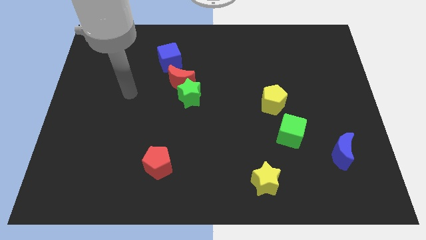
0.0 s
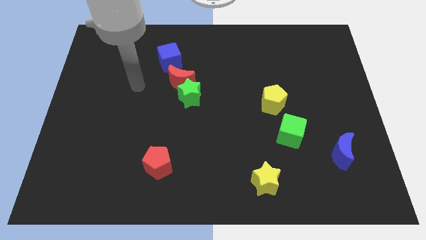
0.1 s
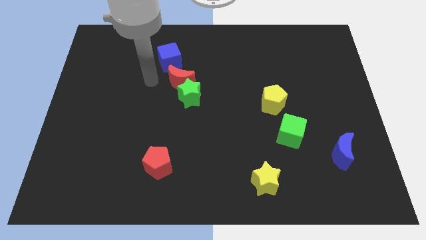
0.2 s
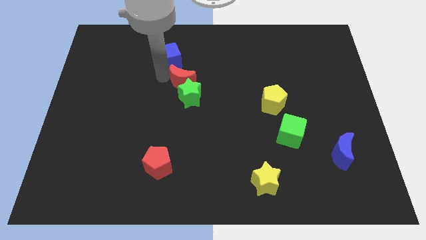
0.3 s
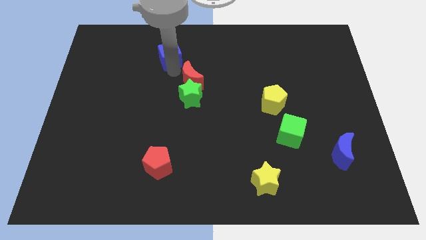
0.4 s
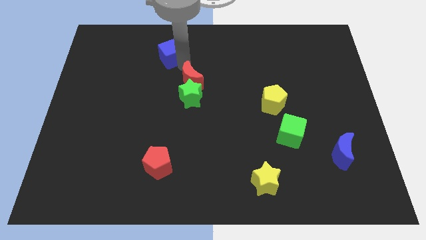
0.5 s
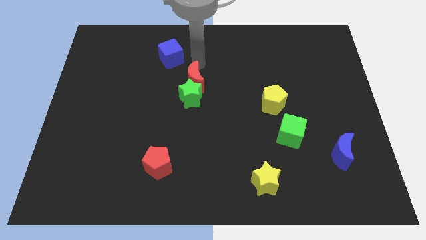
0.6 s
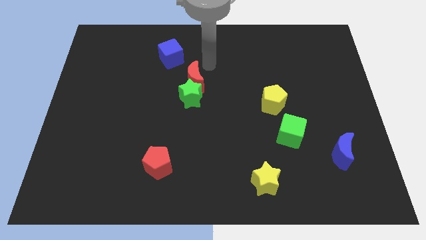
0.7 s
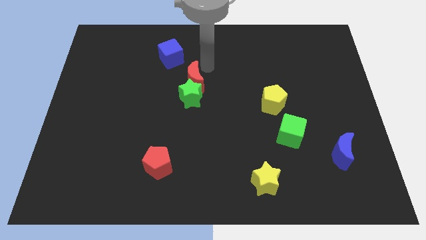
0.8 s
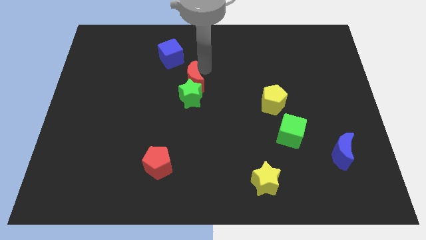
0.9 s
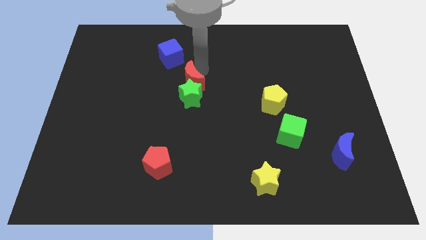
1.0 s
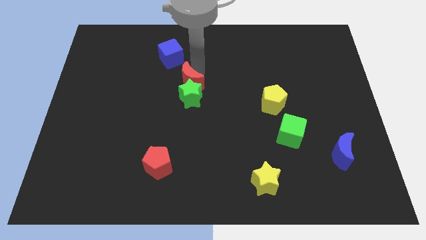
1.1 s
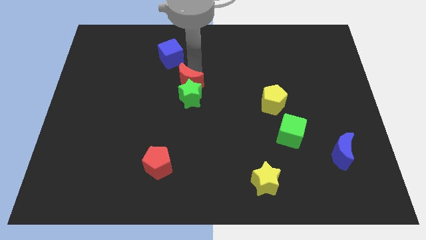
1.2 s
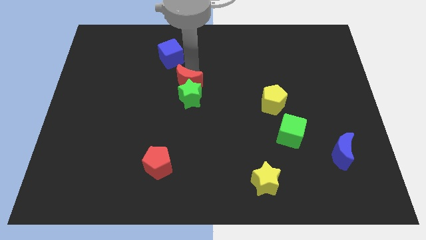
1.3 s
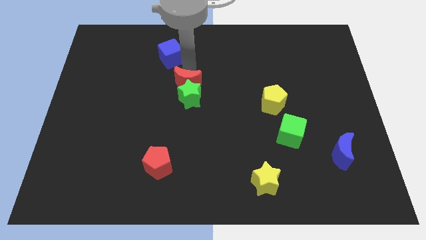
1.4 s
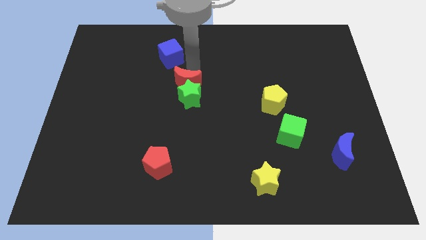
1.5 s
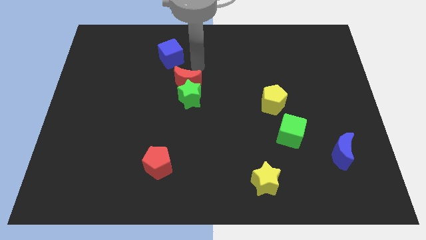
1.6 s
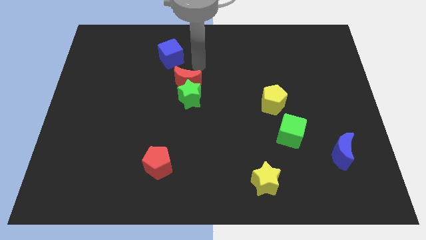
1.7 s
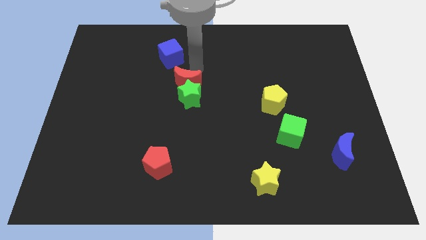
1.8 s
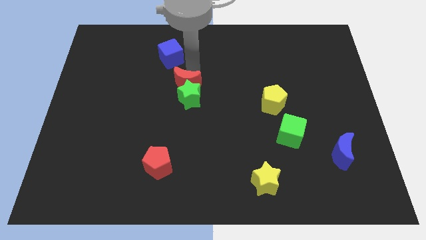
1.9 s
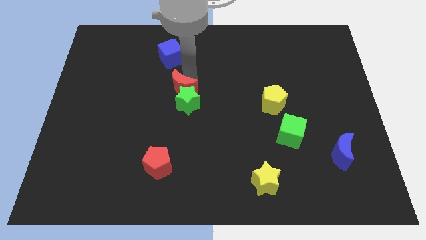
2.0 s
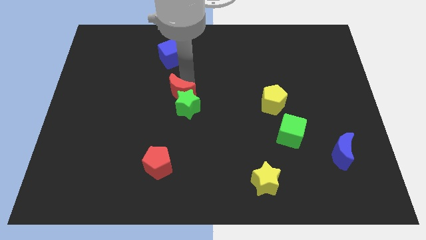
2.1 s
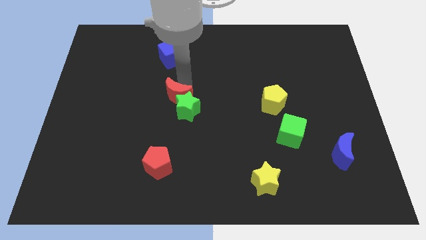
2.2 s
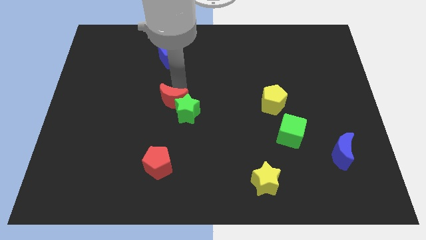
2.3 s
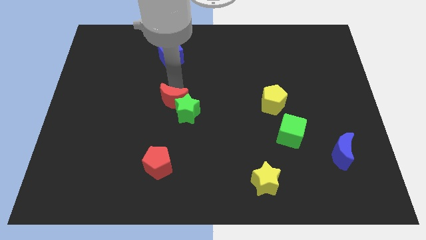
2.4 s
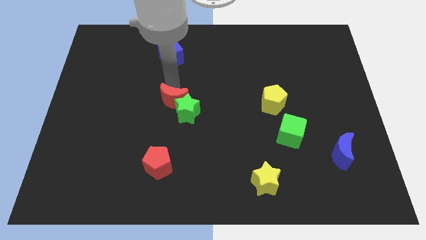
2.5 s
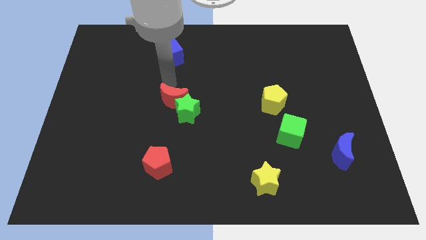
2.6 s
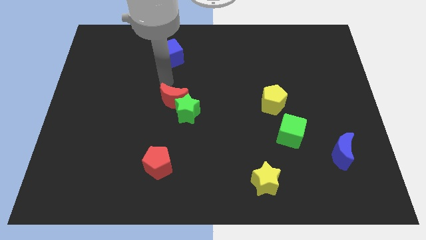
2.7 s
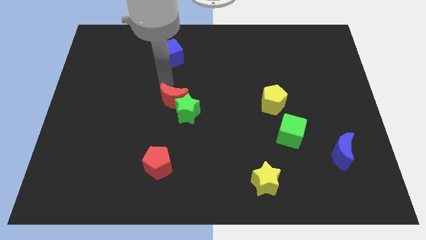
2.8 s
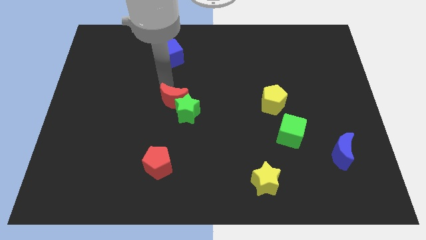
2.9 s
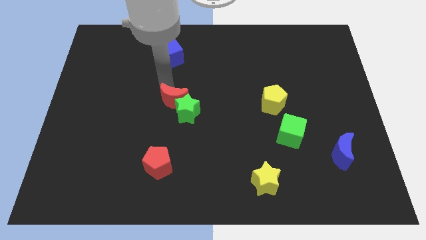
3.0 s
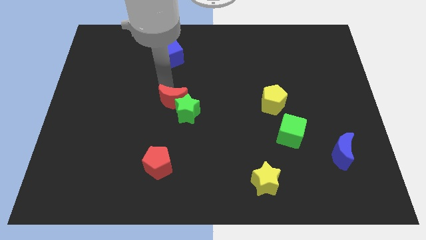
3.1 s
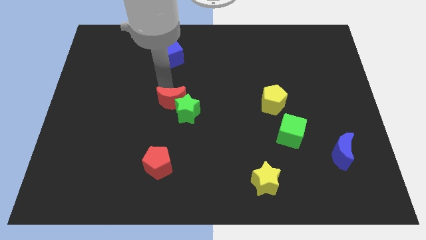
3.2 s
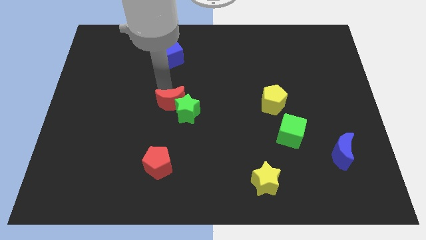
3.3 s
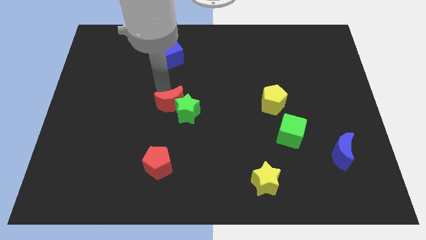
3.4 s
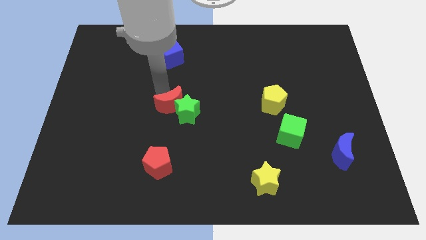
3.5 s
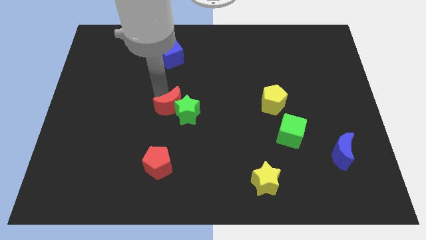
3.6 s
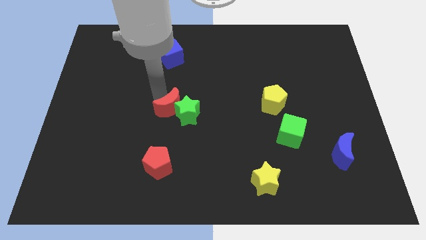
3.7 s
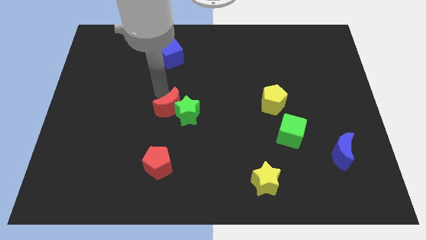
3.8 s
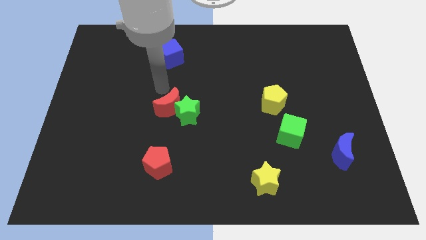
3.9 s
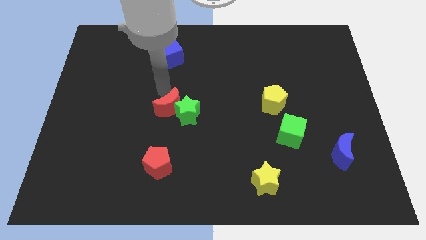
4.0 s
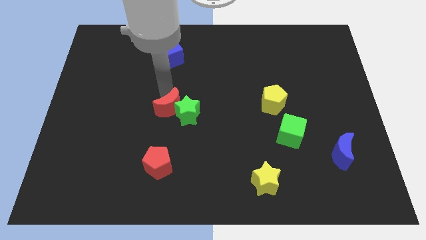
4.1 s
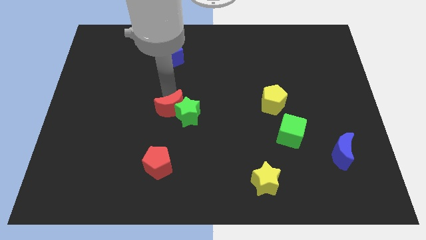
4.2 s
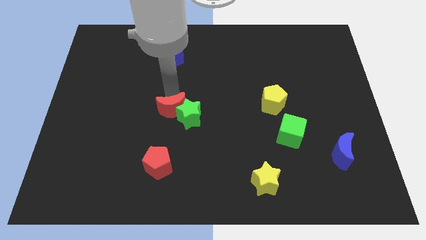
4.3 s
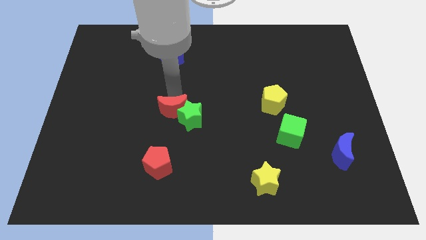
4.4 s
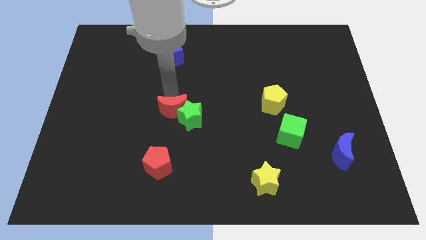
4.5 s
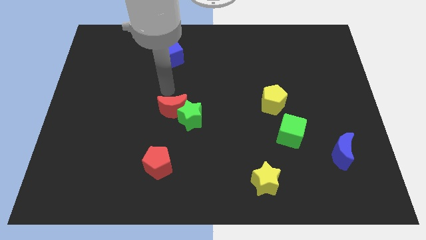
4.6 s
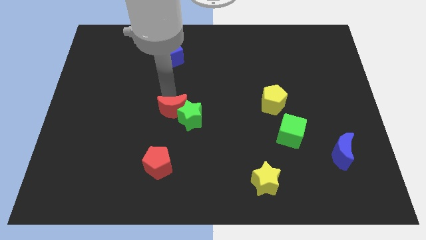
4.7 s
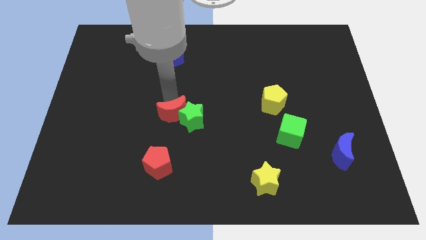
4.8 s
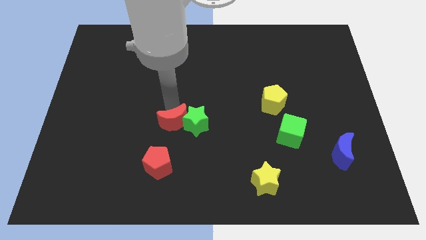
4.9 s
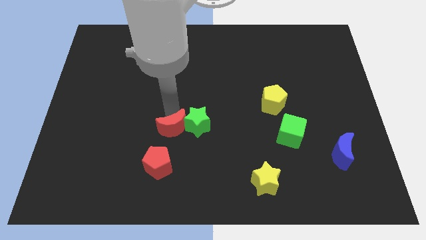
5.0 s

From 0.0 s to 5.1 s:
slide the red moon to the top right side of the red pentagon

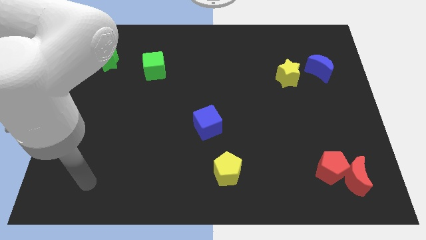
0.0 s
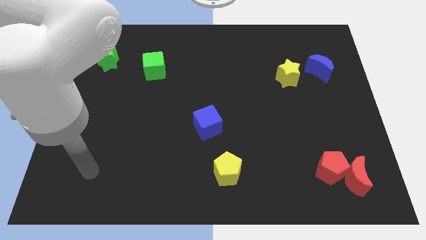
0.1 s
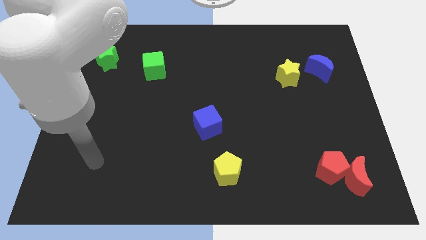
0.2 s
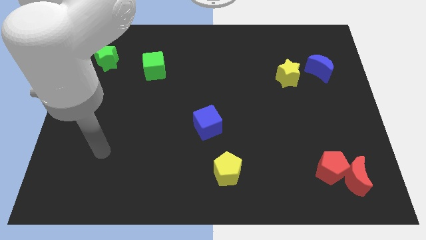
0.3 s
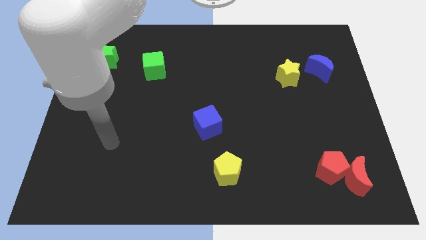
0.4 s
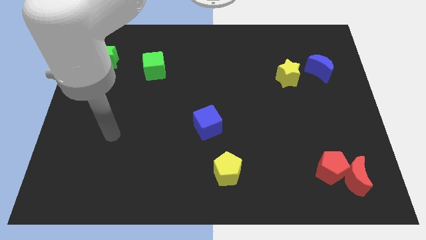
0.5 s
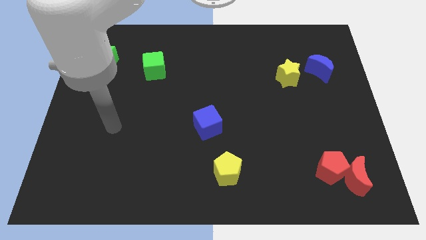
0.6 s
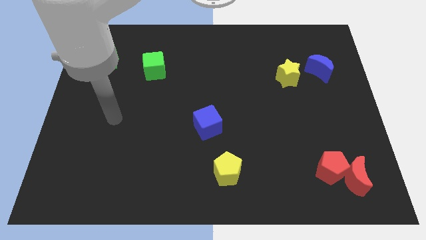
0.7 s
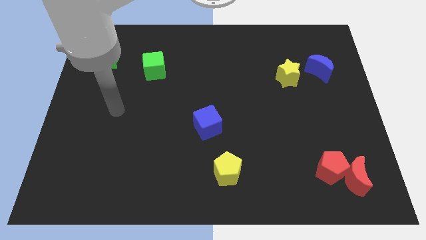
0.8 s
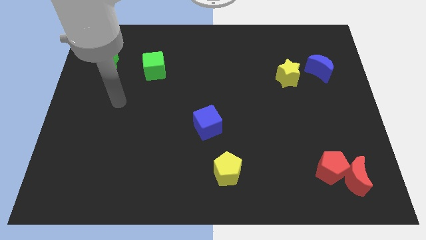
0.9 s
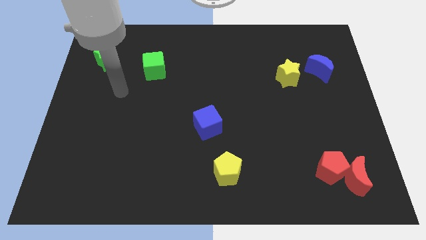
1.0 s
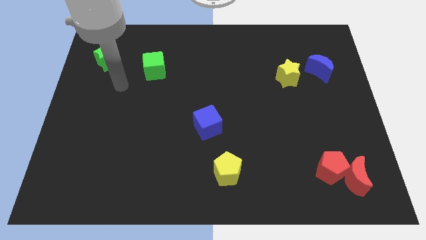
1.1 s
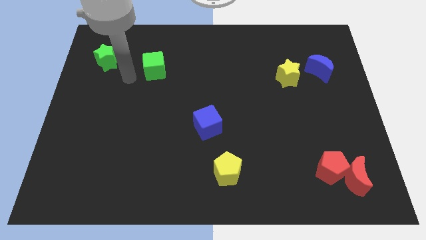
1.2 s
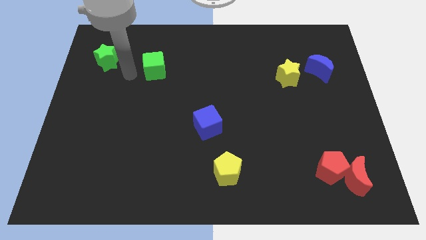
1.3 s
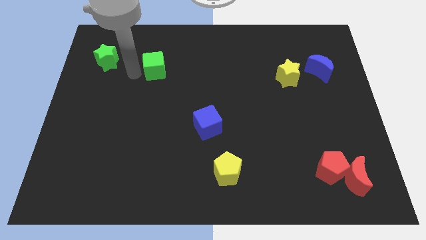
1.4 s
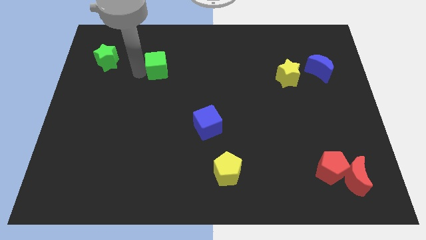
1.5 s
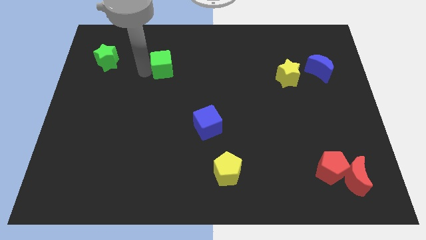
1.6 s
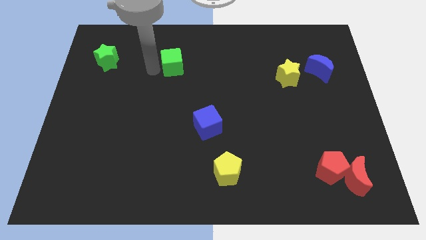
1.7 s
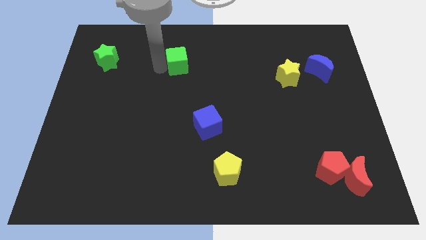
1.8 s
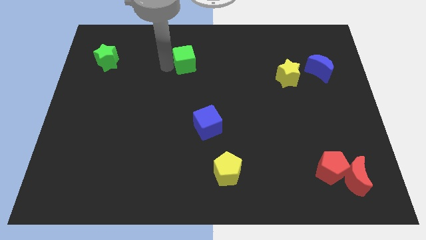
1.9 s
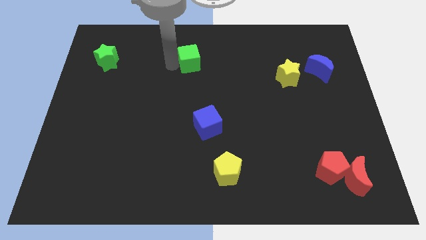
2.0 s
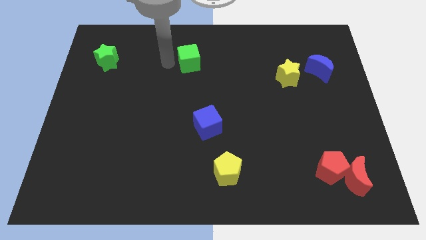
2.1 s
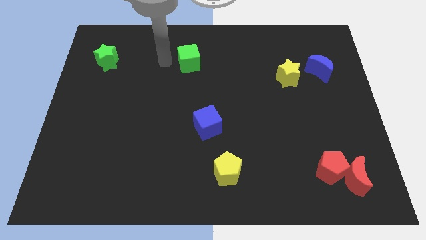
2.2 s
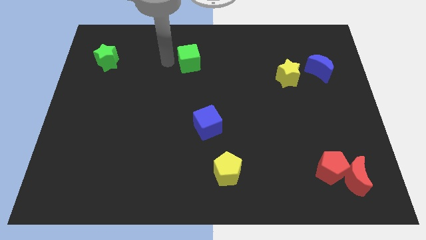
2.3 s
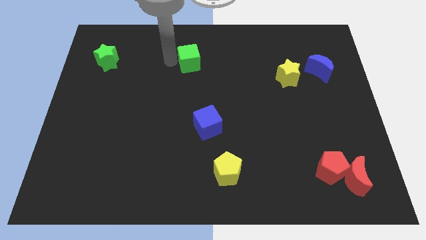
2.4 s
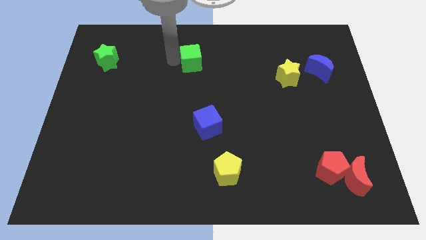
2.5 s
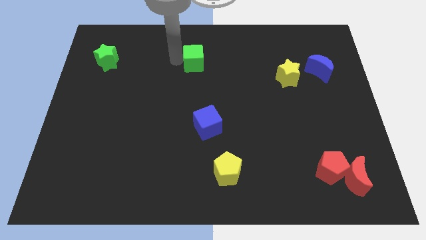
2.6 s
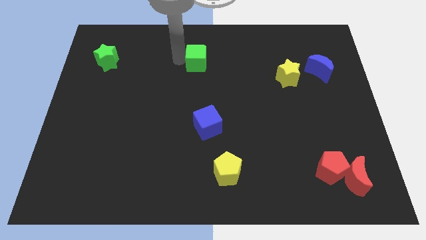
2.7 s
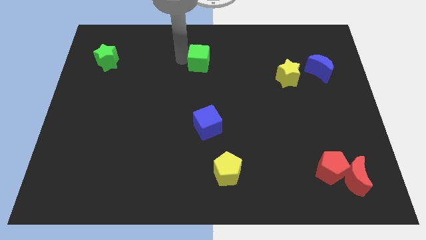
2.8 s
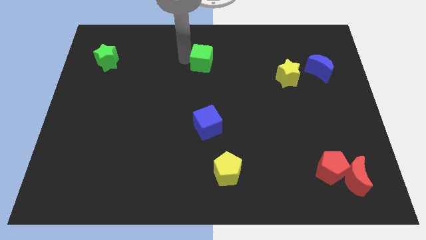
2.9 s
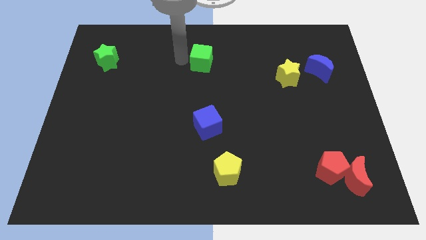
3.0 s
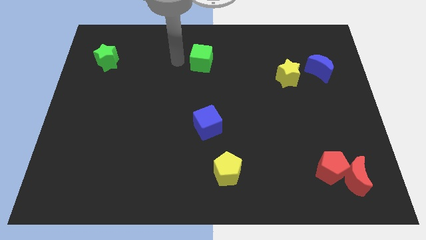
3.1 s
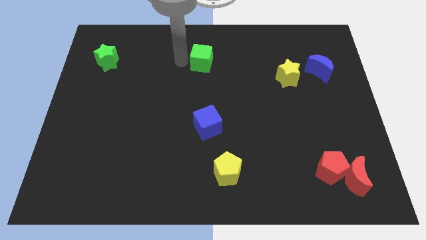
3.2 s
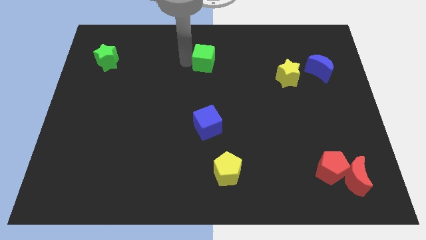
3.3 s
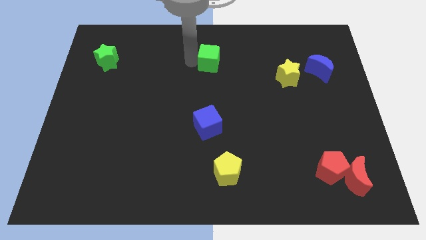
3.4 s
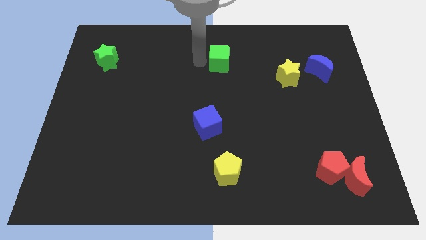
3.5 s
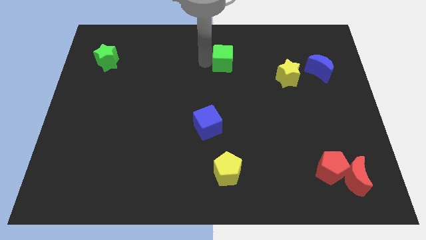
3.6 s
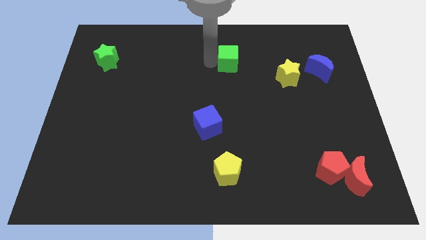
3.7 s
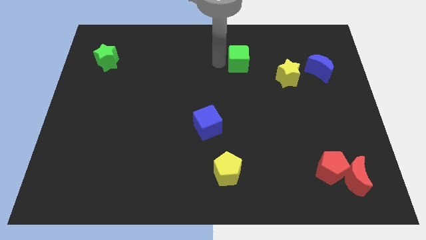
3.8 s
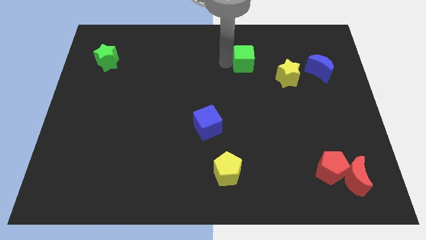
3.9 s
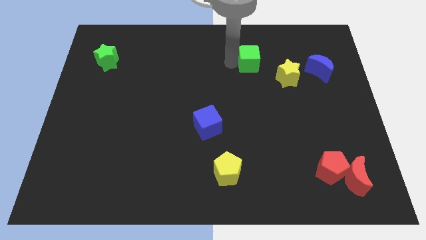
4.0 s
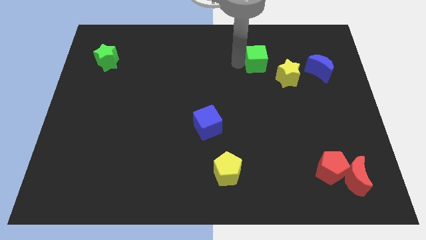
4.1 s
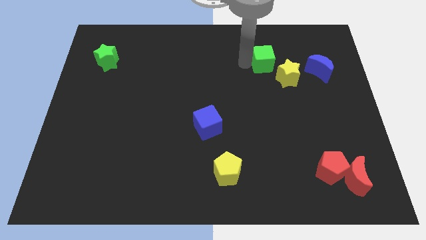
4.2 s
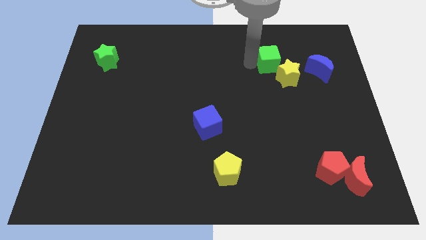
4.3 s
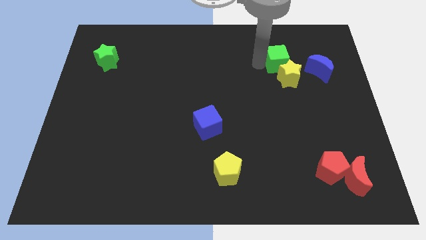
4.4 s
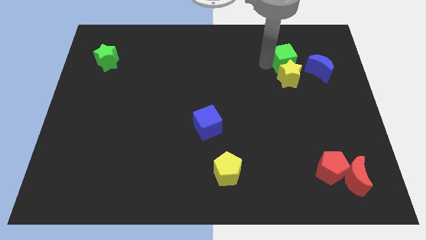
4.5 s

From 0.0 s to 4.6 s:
slide the green cube to the top left side of the blue moon
